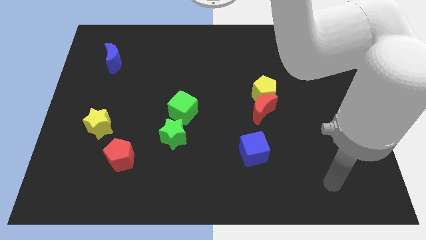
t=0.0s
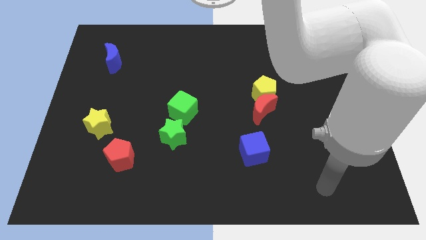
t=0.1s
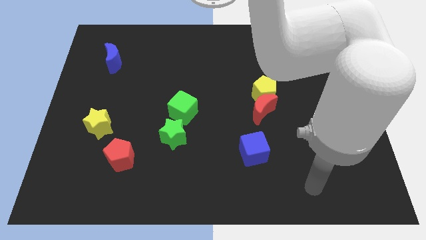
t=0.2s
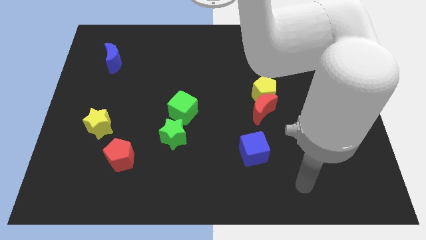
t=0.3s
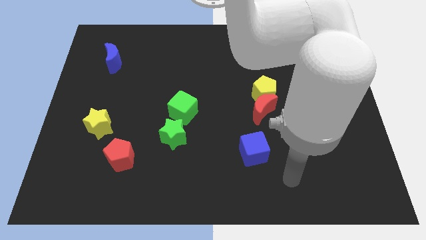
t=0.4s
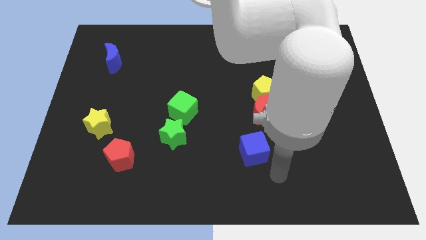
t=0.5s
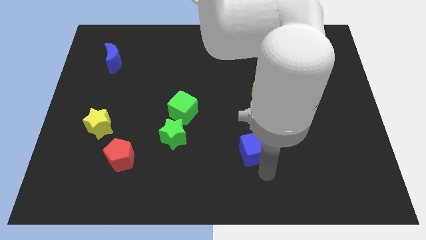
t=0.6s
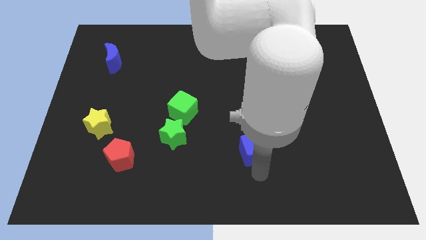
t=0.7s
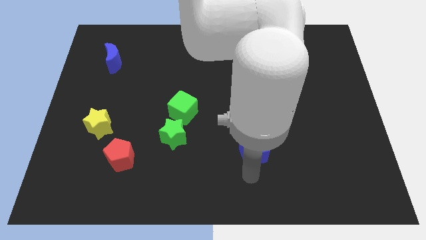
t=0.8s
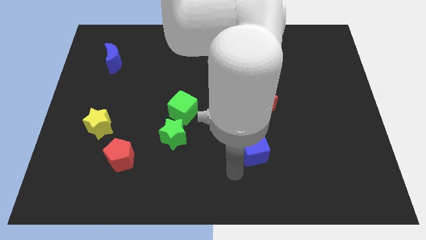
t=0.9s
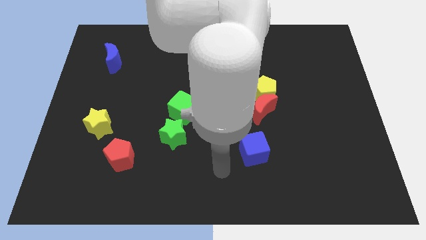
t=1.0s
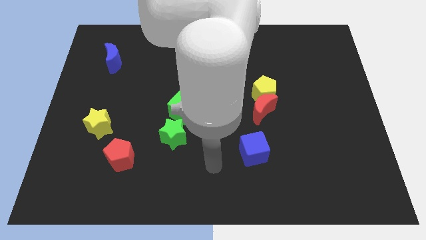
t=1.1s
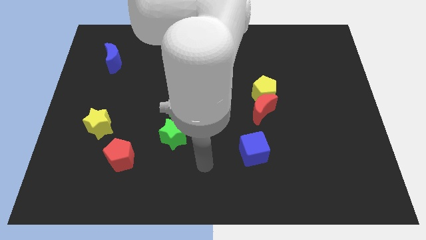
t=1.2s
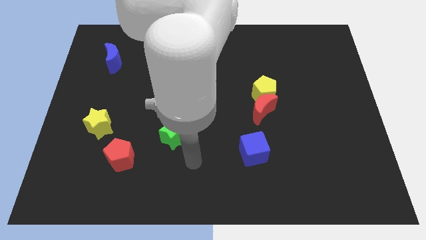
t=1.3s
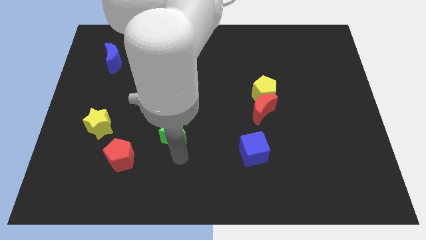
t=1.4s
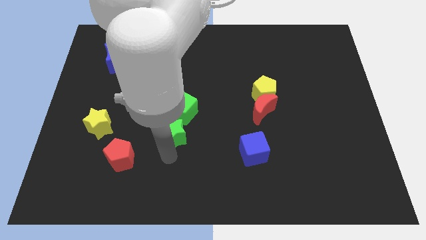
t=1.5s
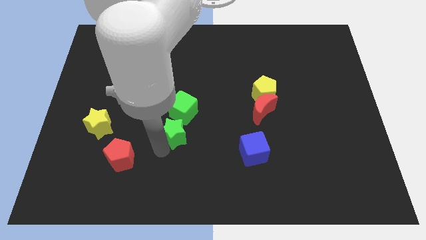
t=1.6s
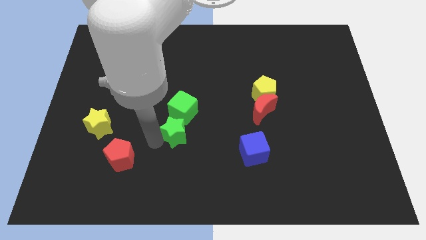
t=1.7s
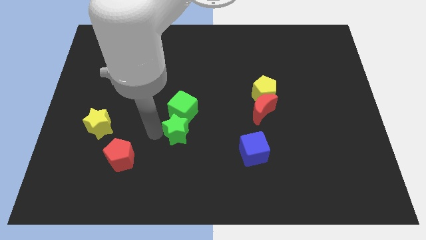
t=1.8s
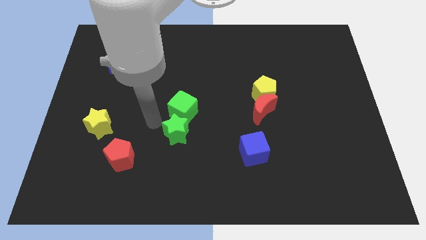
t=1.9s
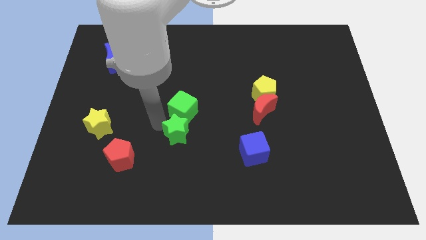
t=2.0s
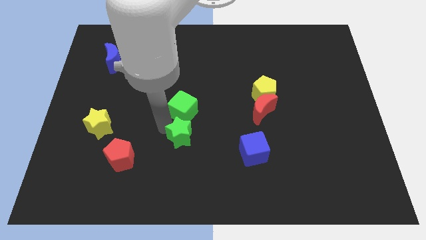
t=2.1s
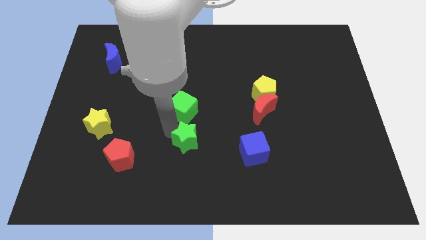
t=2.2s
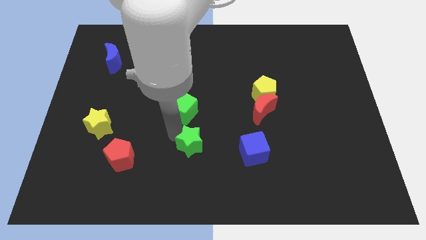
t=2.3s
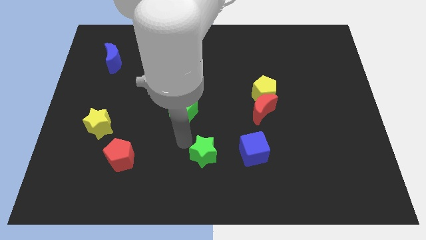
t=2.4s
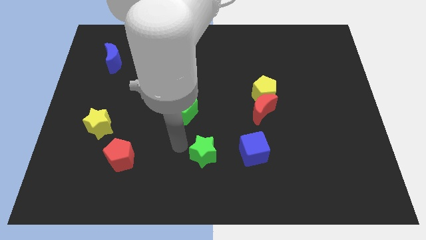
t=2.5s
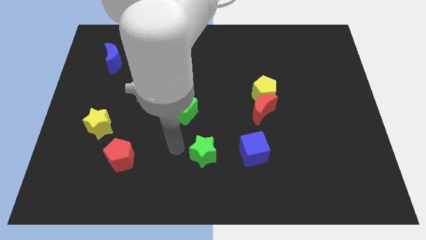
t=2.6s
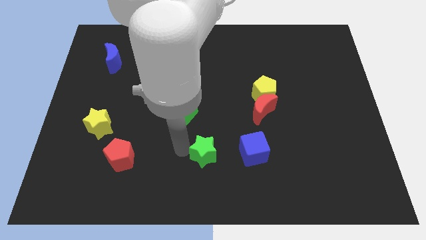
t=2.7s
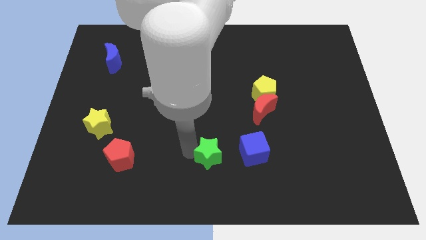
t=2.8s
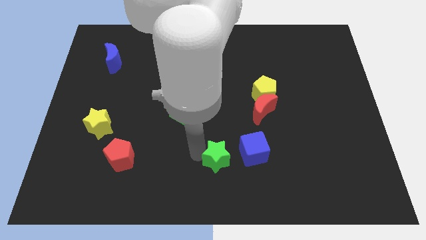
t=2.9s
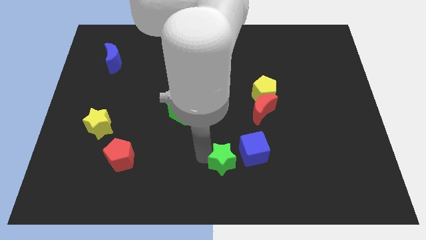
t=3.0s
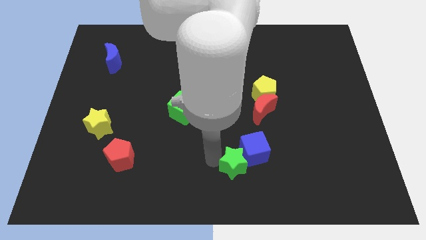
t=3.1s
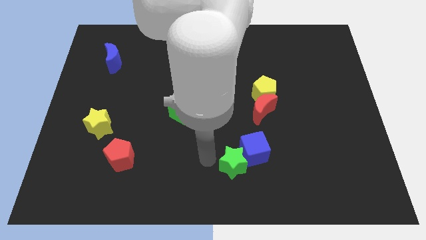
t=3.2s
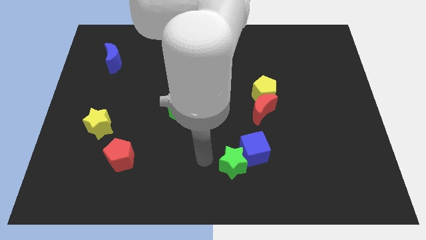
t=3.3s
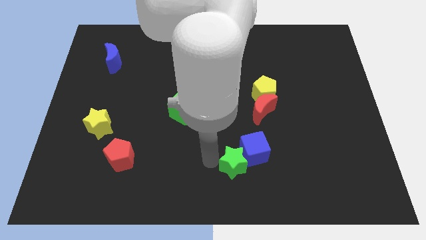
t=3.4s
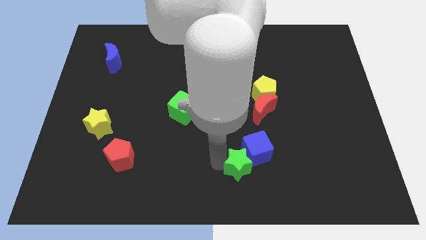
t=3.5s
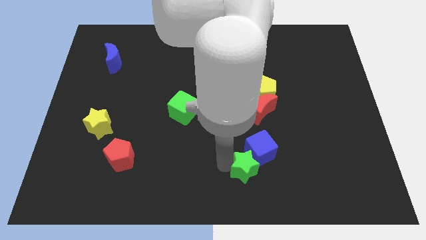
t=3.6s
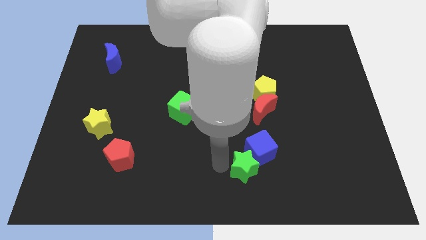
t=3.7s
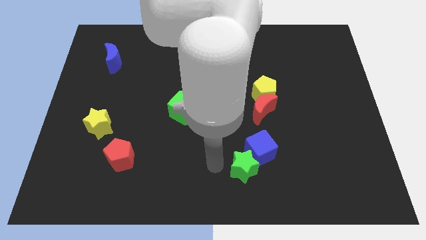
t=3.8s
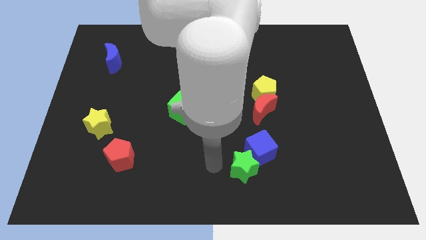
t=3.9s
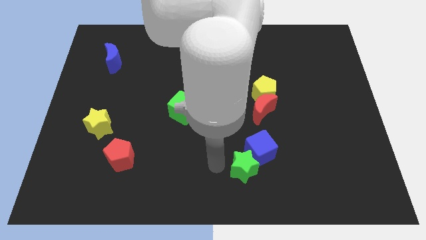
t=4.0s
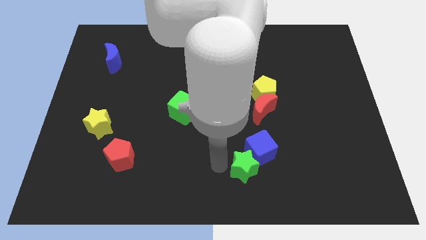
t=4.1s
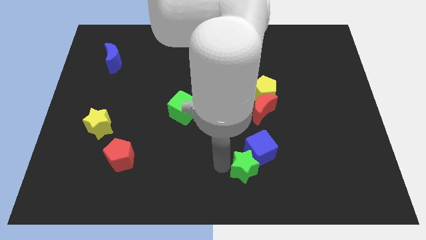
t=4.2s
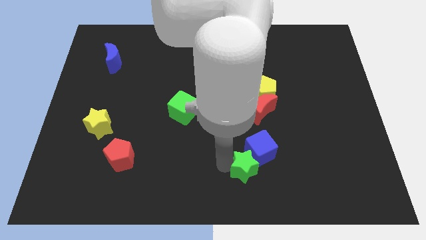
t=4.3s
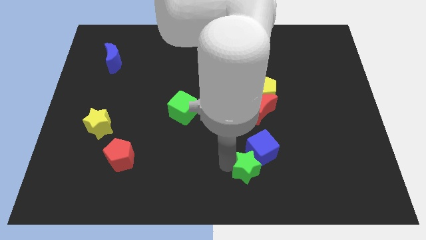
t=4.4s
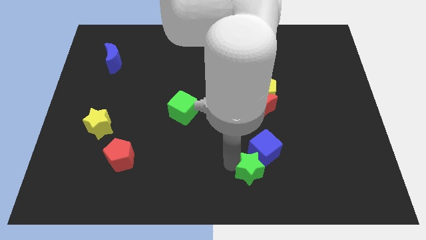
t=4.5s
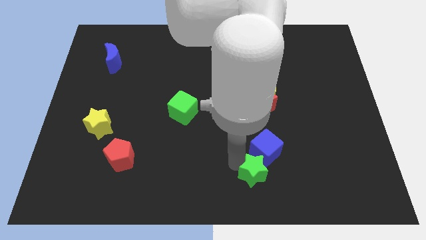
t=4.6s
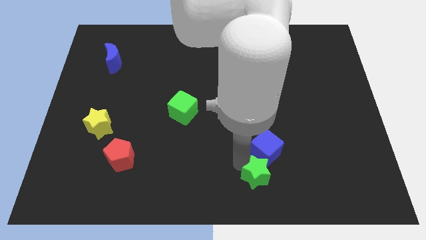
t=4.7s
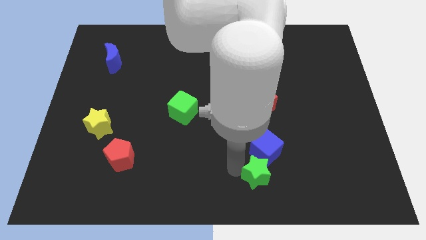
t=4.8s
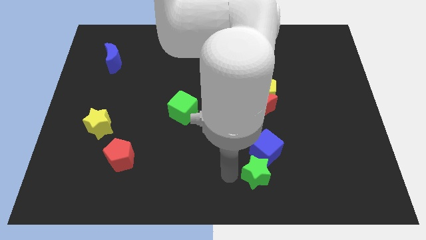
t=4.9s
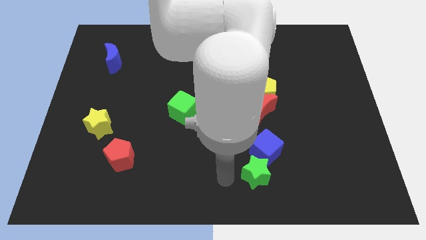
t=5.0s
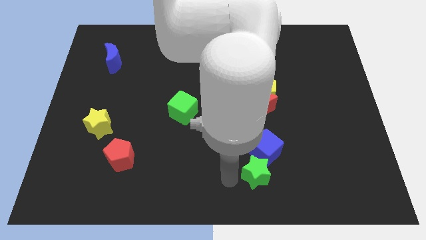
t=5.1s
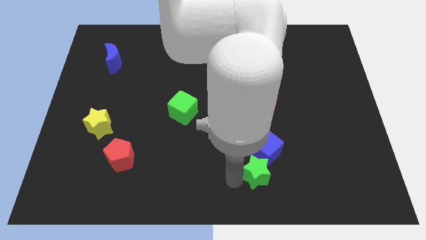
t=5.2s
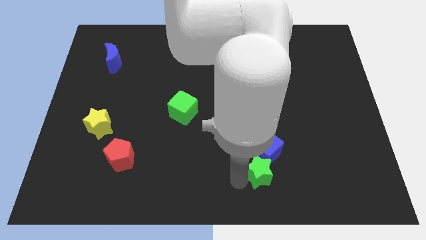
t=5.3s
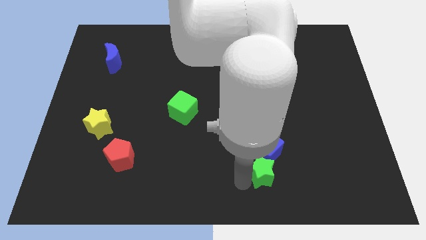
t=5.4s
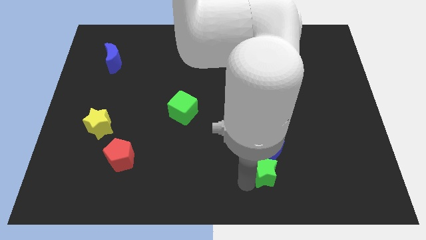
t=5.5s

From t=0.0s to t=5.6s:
push the green star diagonally down and to the right of the blue cube

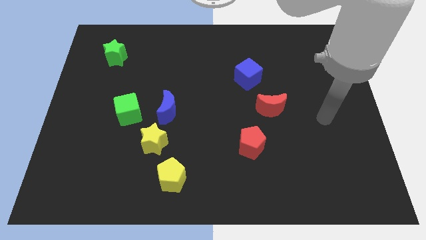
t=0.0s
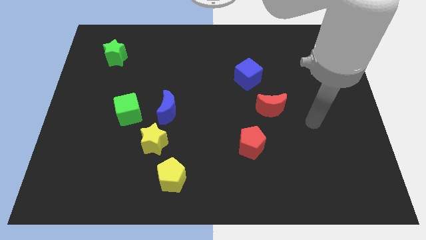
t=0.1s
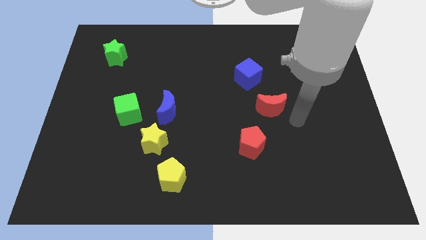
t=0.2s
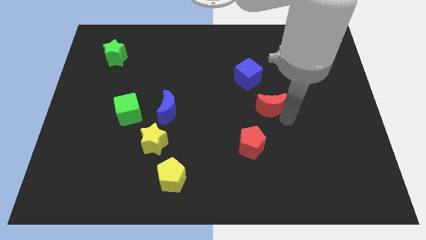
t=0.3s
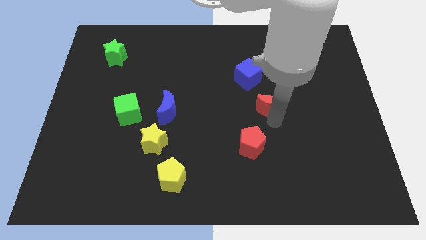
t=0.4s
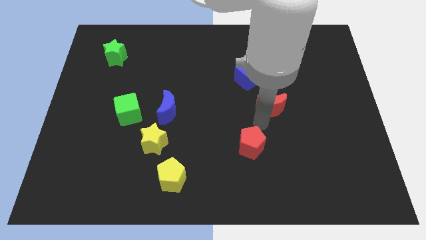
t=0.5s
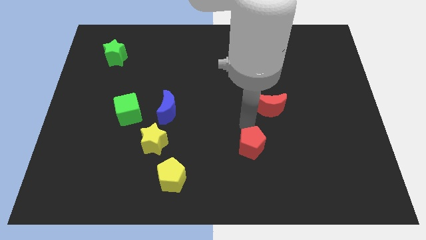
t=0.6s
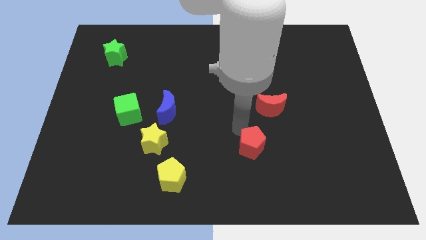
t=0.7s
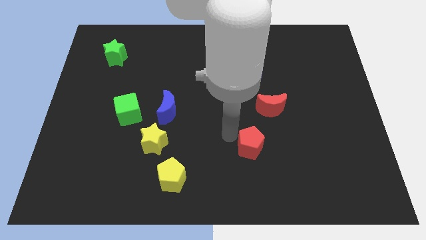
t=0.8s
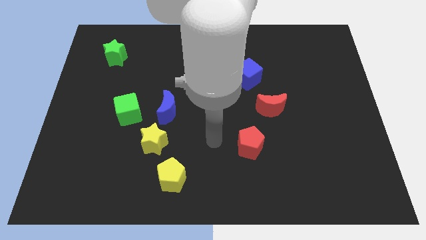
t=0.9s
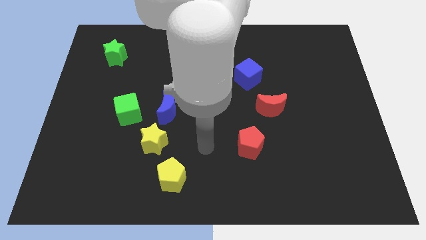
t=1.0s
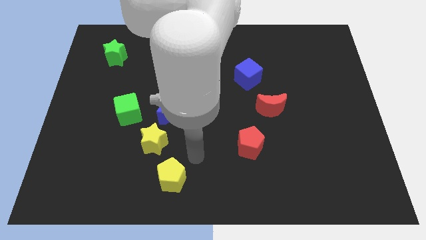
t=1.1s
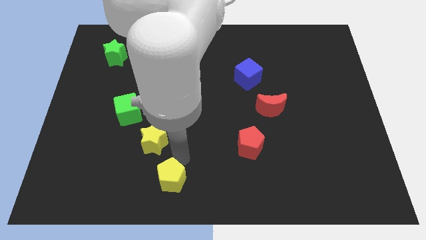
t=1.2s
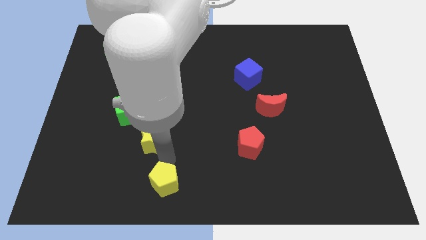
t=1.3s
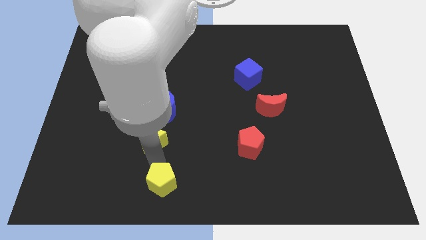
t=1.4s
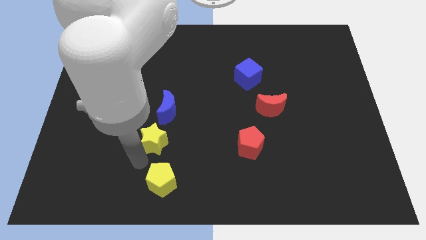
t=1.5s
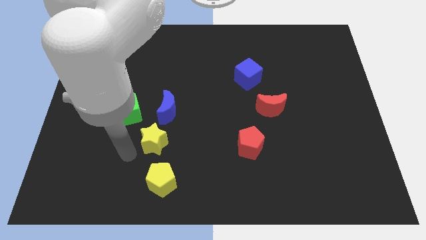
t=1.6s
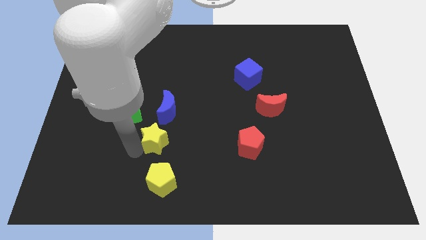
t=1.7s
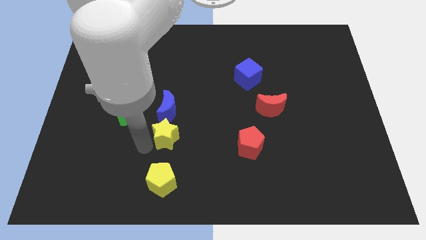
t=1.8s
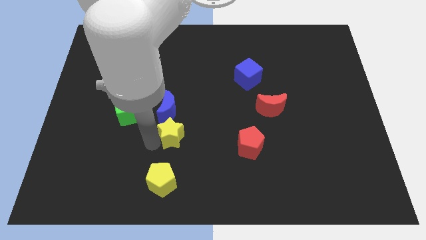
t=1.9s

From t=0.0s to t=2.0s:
move the yellow star diagonally down and to the right of the blue moon

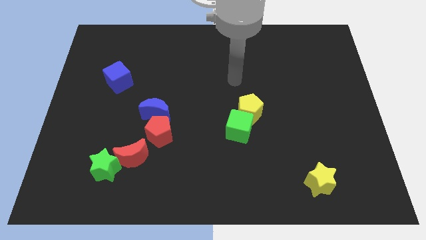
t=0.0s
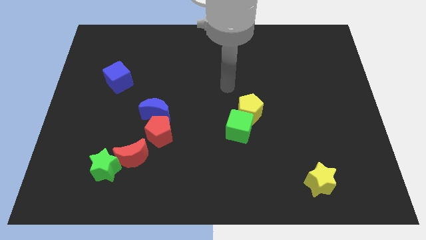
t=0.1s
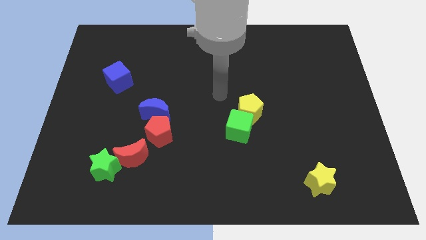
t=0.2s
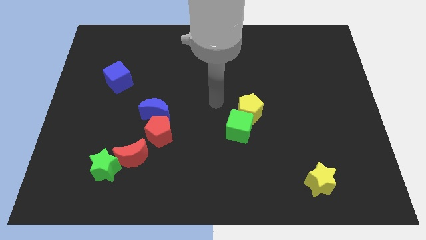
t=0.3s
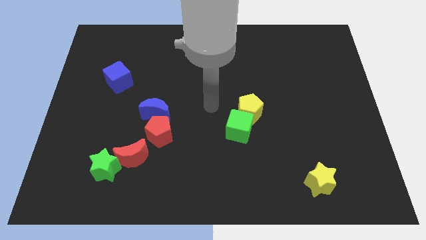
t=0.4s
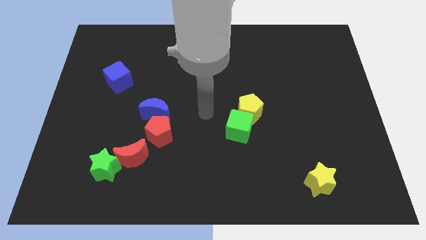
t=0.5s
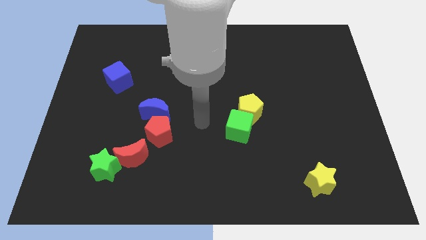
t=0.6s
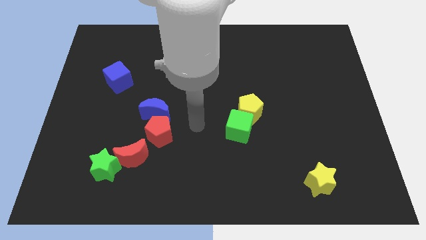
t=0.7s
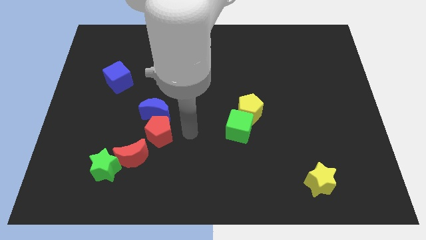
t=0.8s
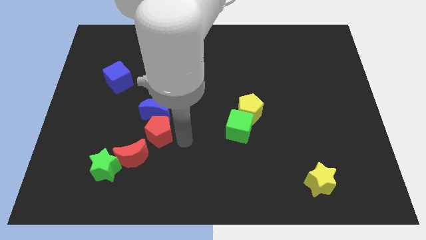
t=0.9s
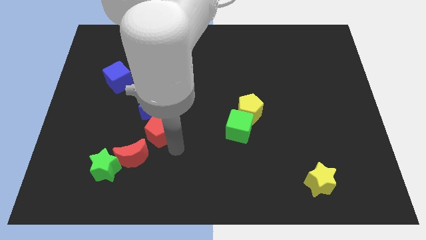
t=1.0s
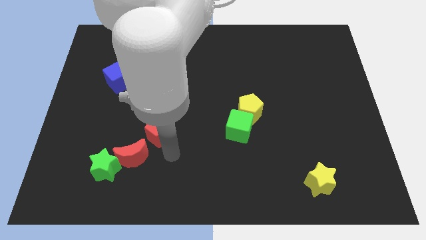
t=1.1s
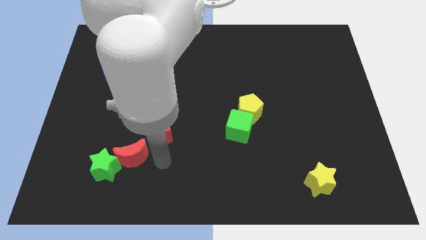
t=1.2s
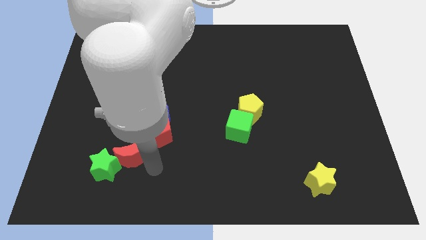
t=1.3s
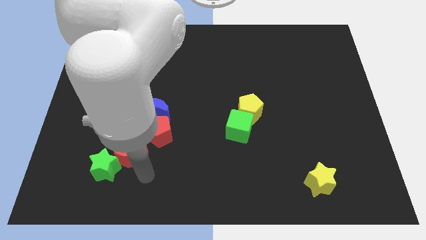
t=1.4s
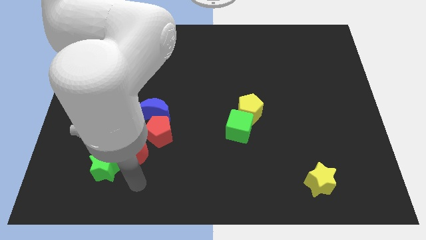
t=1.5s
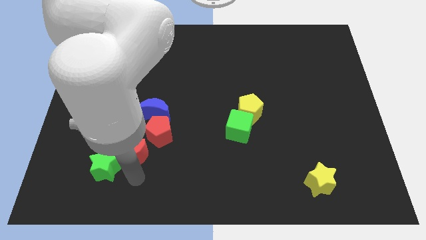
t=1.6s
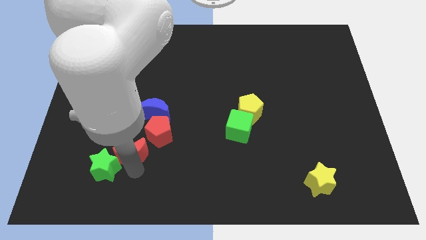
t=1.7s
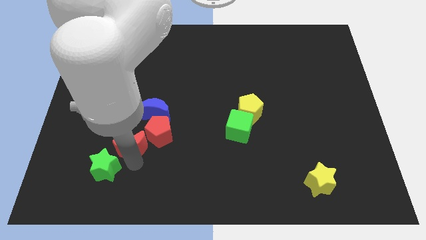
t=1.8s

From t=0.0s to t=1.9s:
slide the red moon diagonally down and to the left of the blue moon
